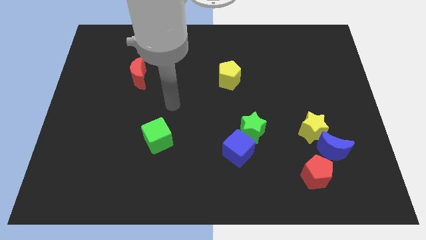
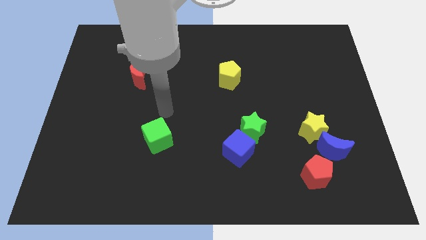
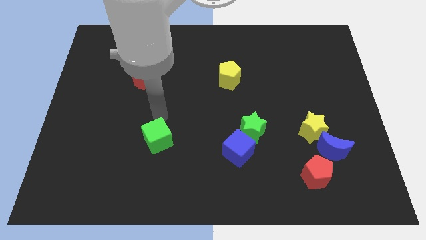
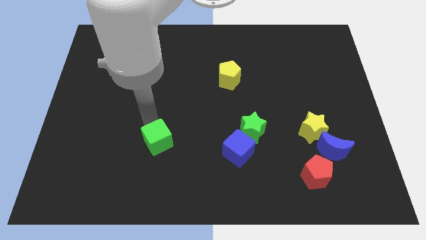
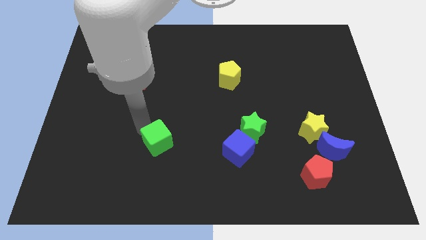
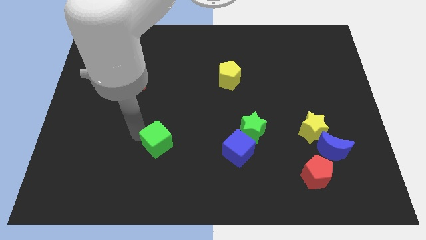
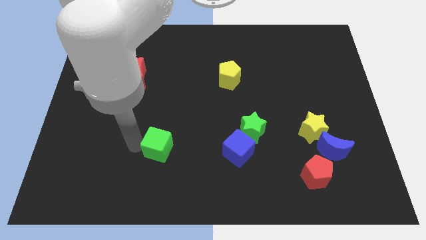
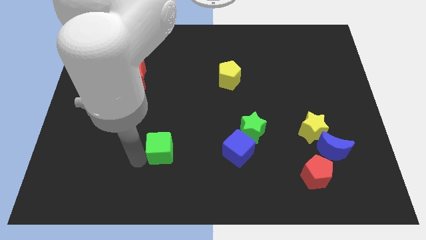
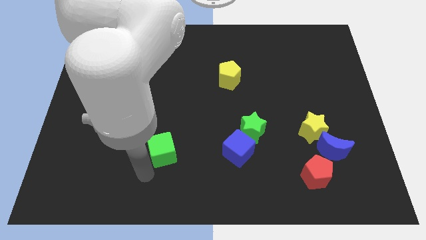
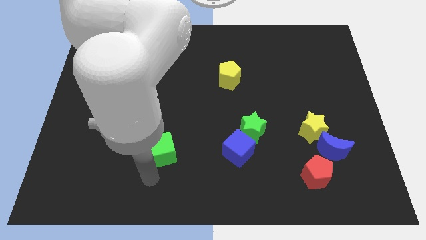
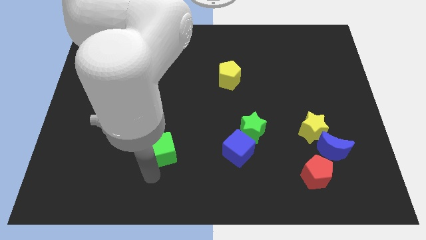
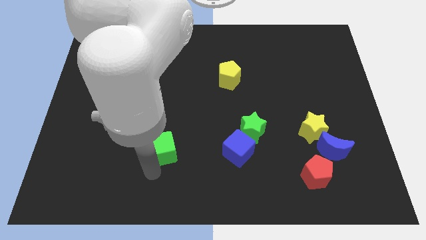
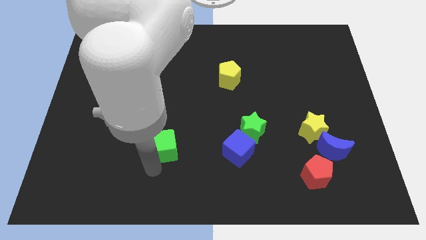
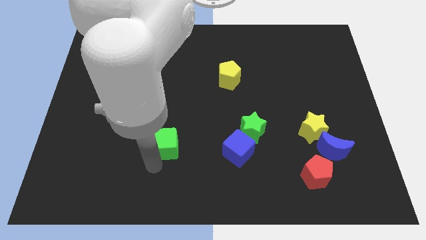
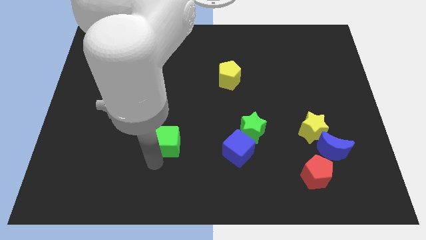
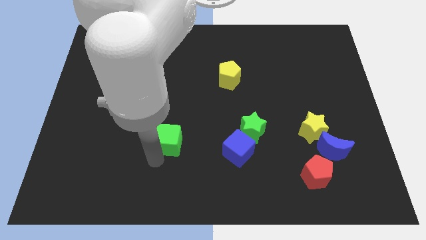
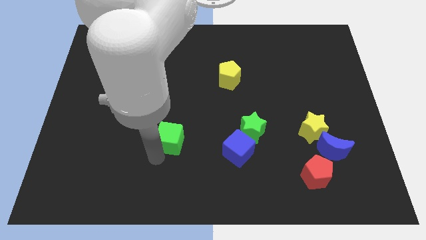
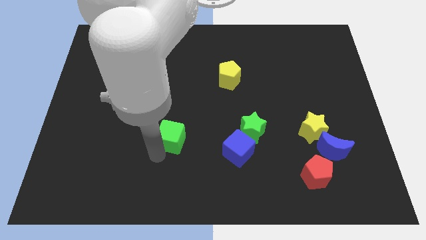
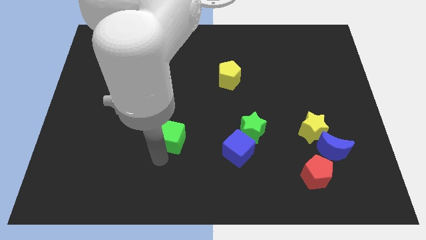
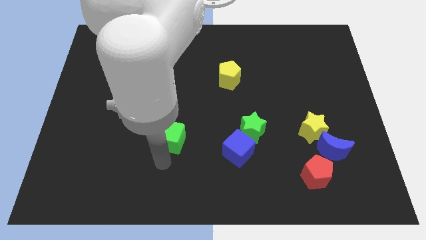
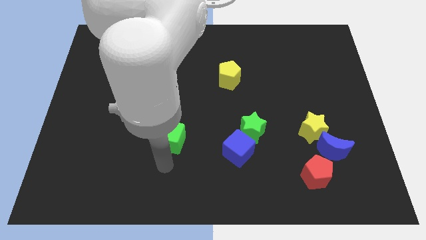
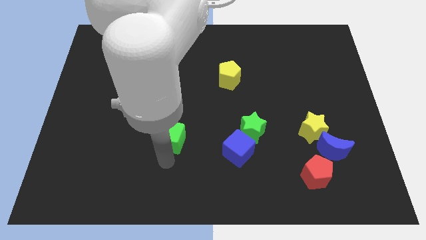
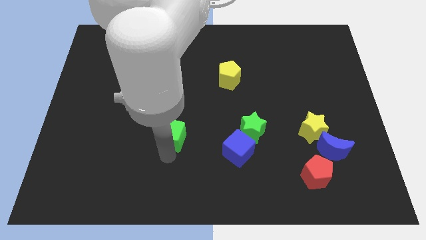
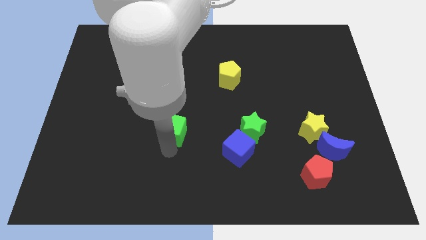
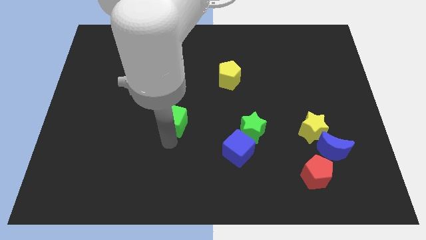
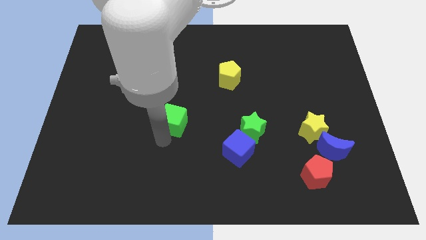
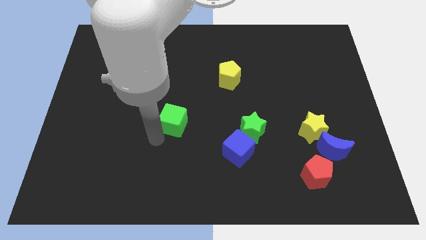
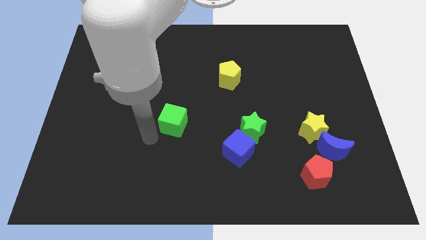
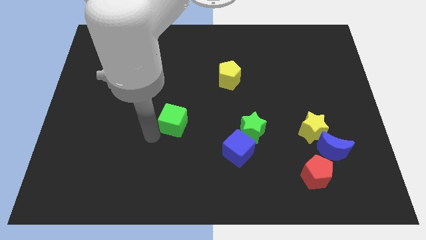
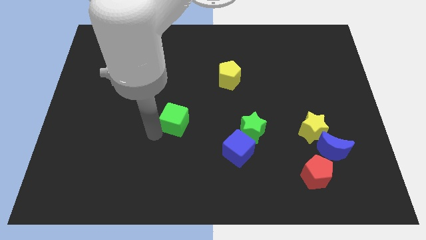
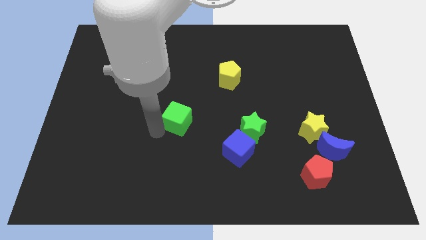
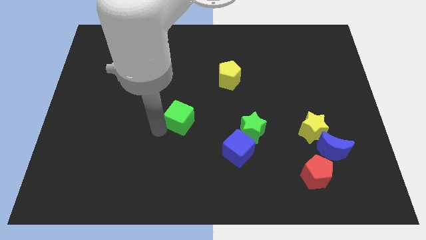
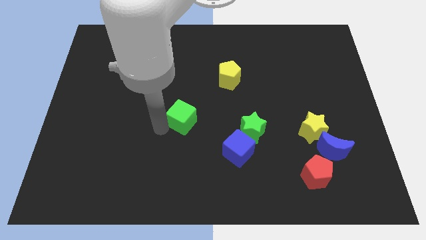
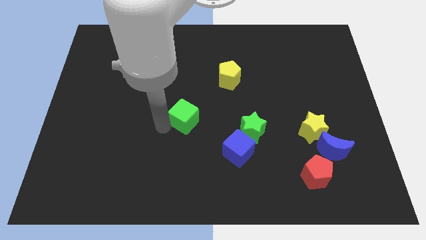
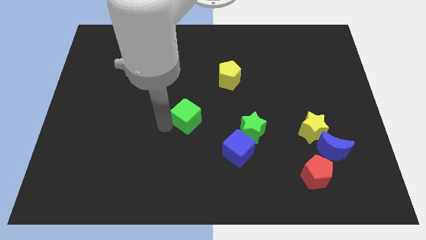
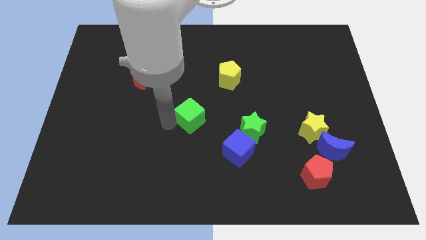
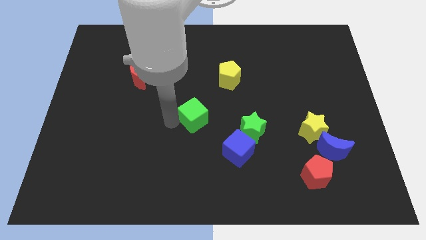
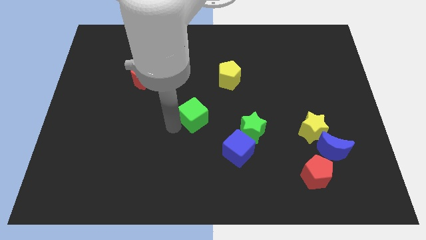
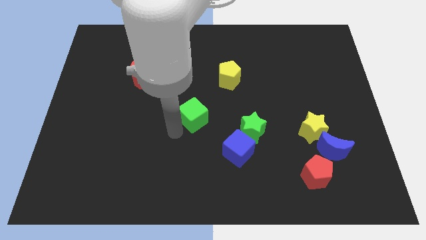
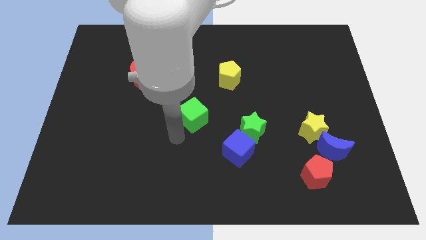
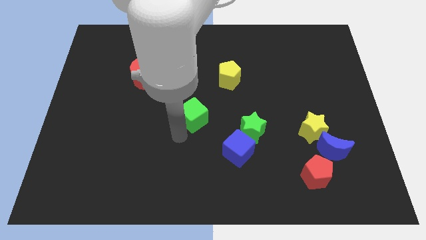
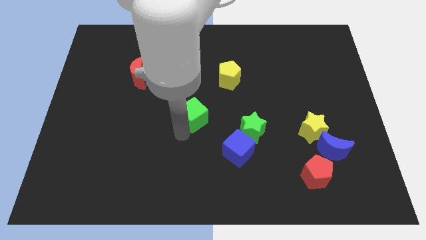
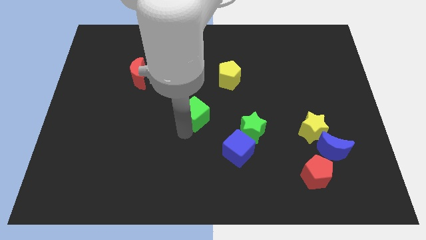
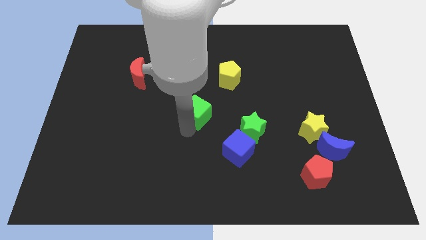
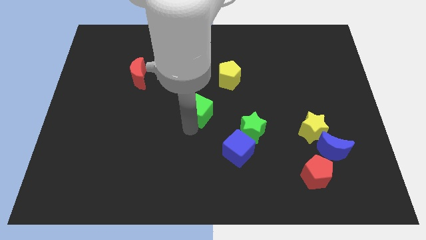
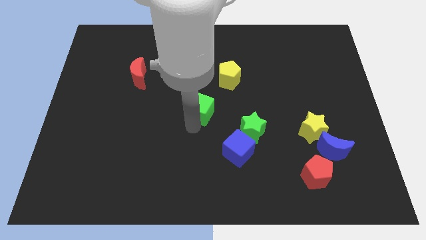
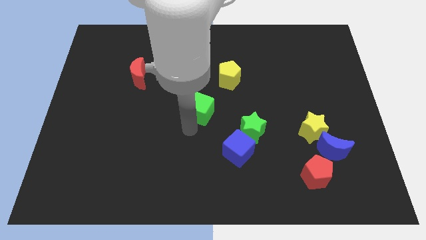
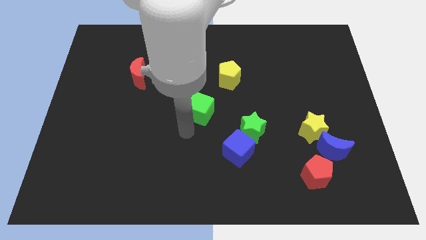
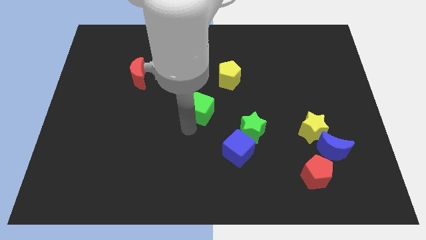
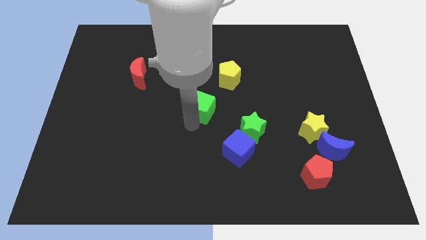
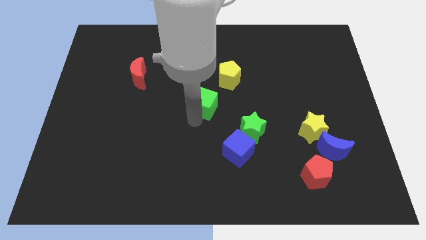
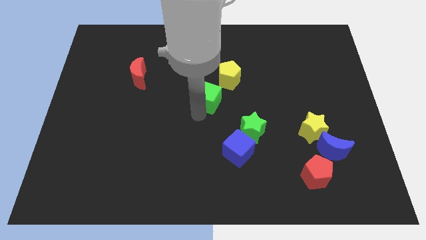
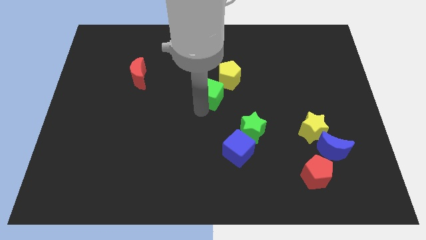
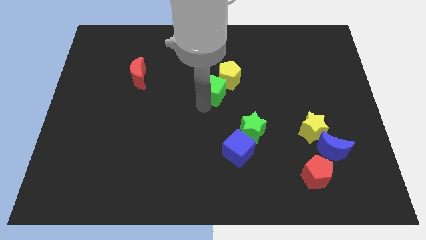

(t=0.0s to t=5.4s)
push the green cube towards the yellow pentagon

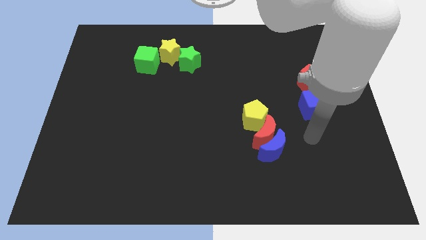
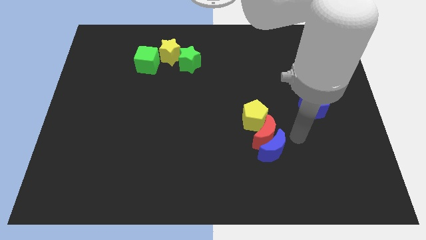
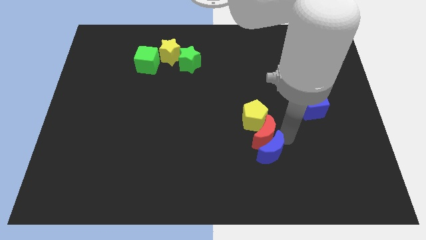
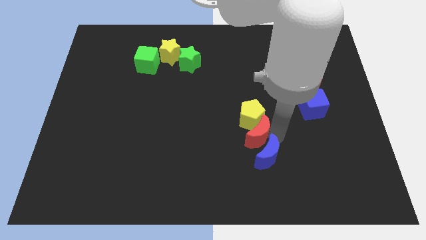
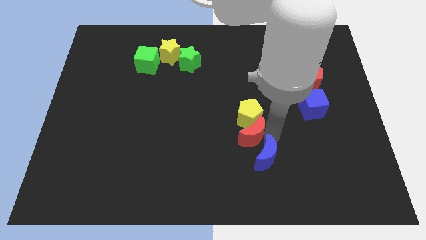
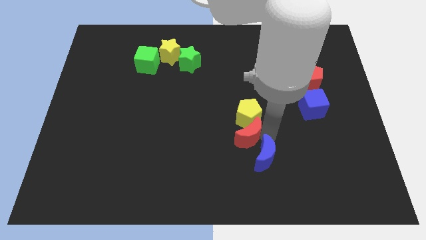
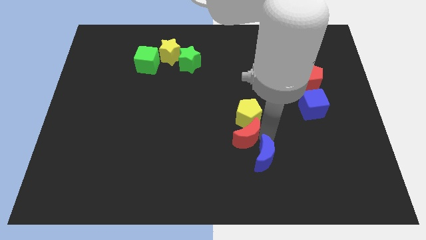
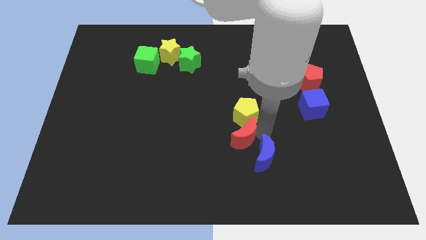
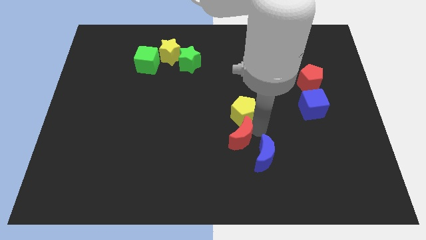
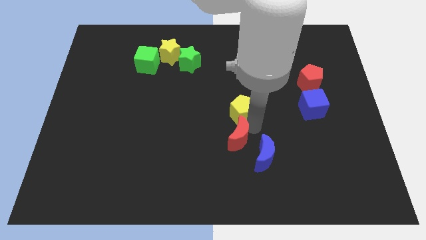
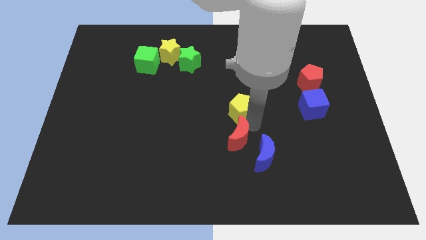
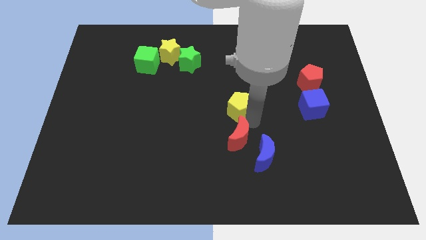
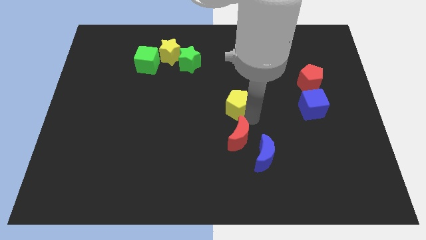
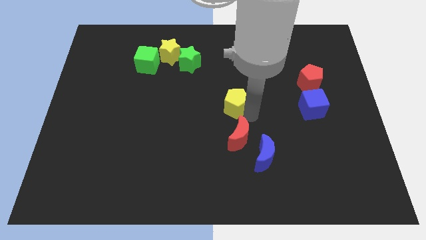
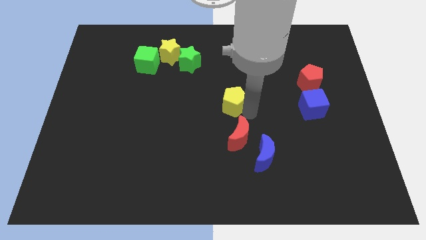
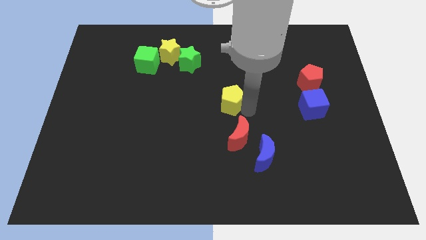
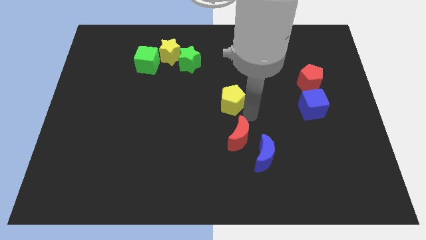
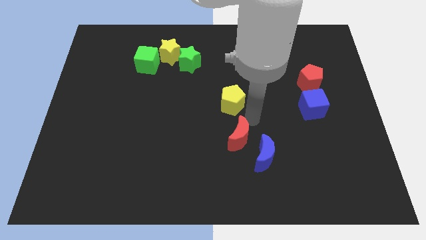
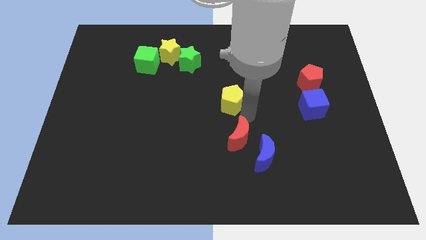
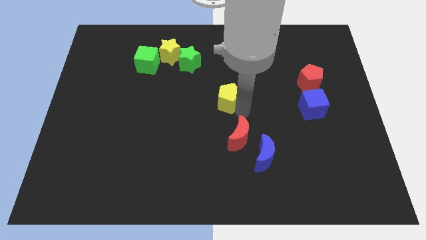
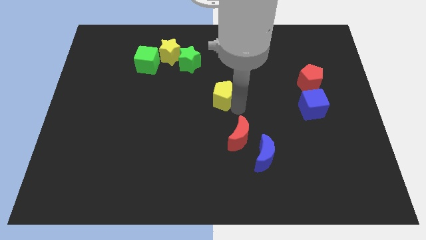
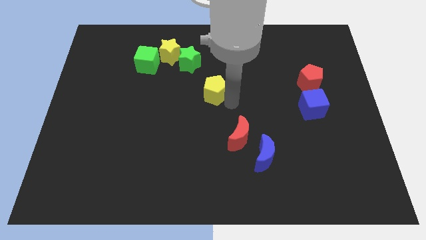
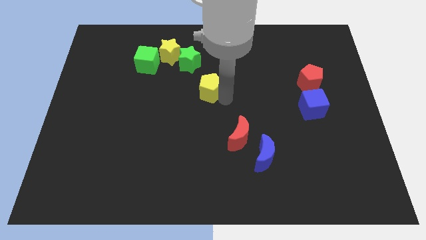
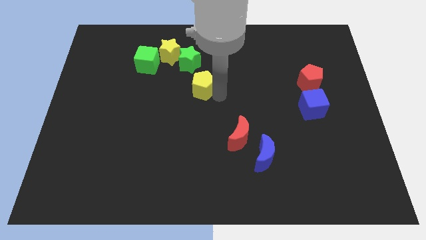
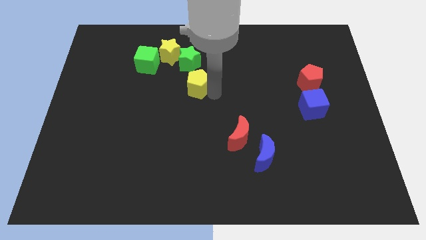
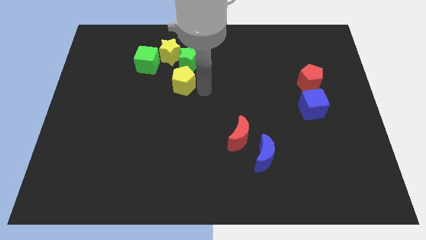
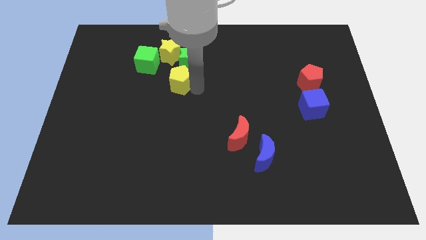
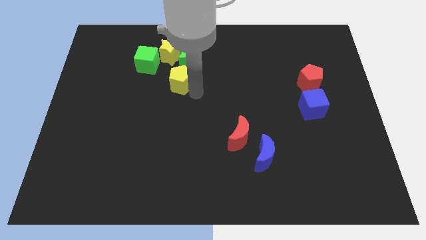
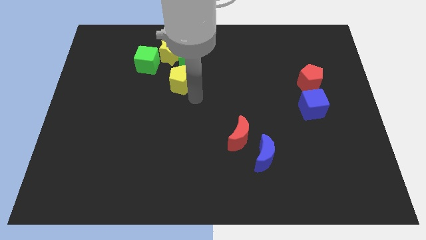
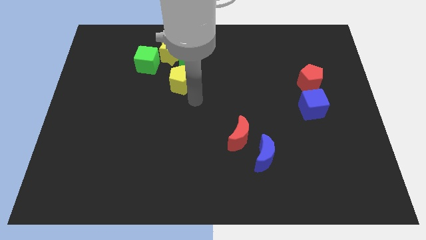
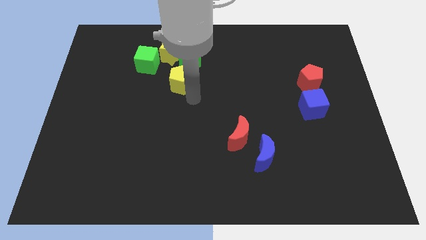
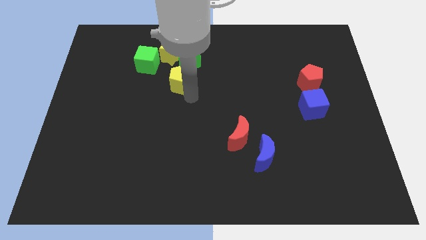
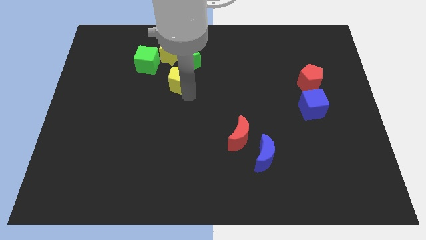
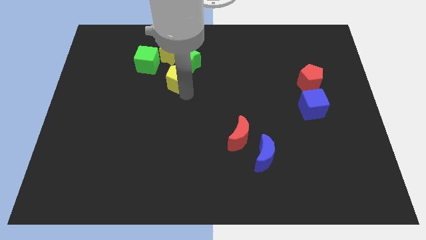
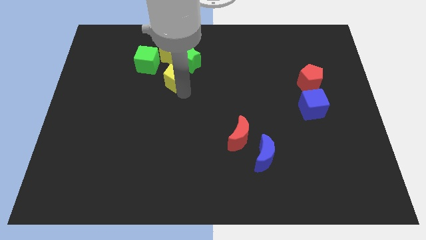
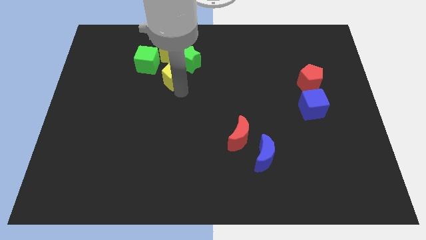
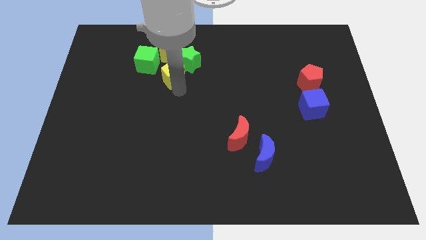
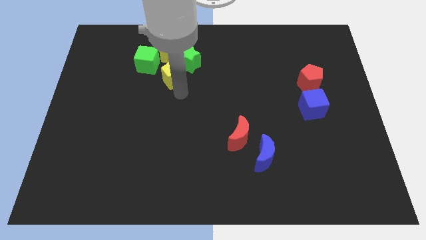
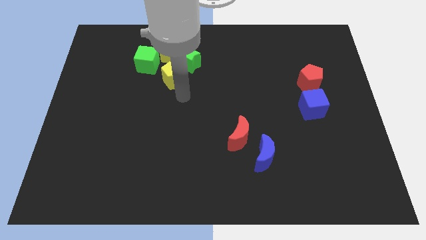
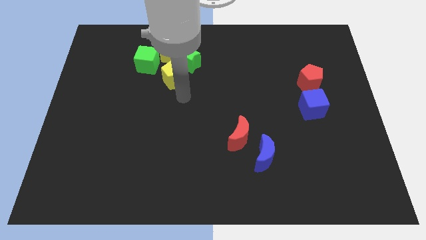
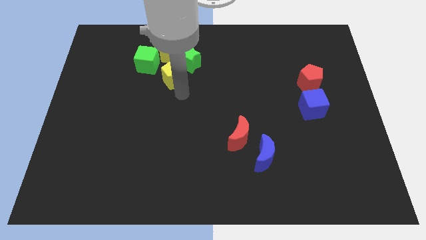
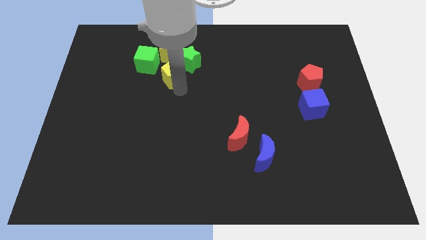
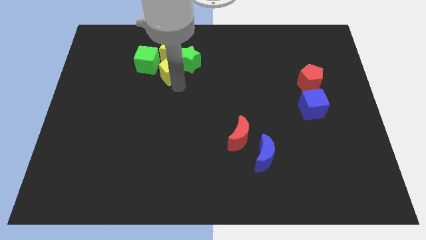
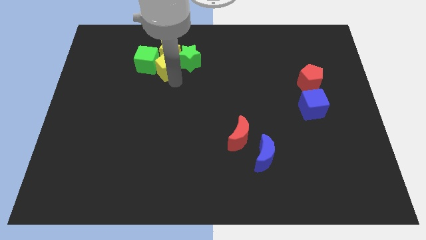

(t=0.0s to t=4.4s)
push the yellow pentagon towards the yellow star
